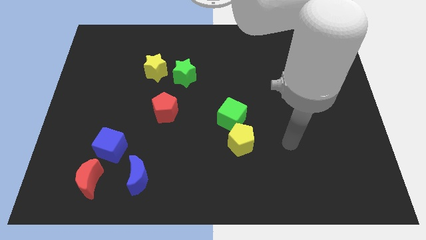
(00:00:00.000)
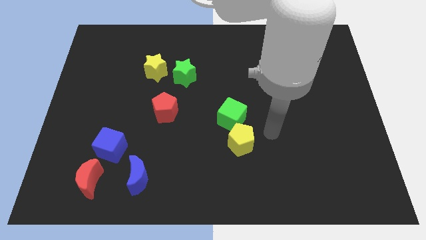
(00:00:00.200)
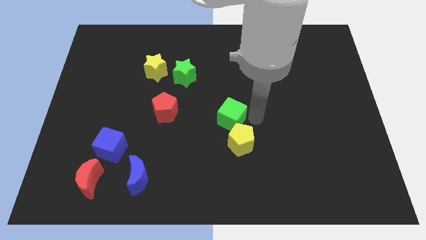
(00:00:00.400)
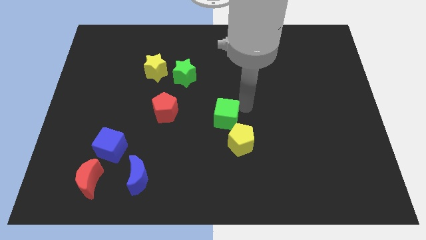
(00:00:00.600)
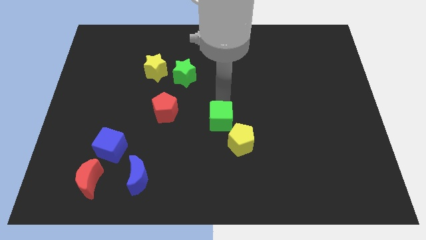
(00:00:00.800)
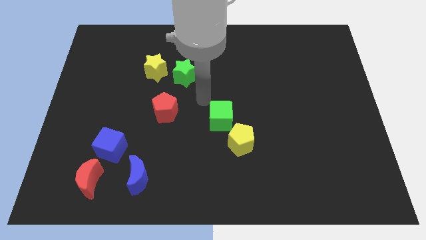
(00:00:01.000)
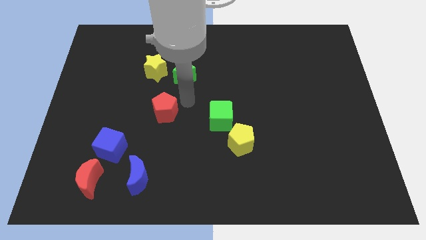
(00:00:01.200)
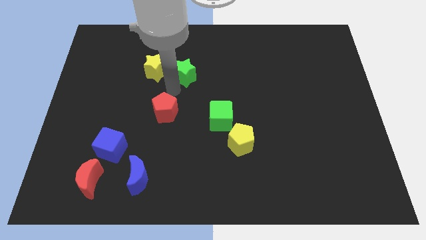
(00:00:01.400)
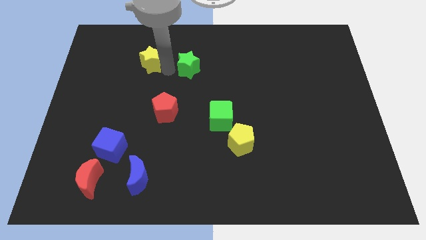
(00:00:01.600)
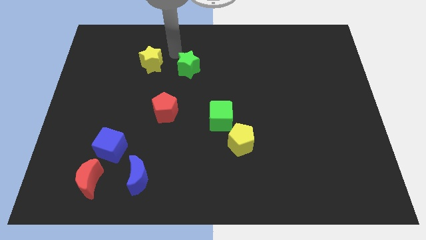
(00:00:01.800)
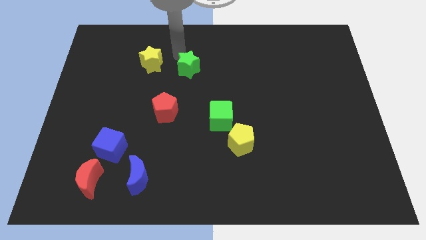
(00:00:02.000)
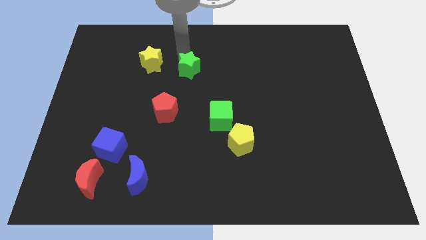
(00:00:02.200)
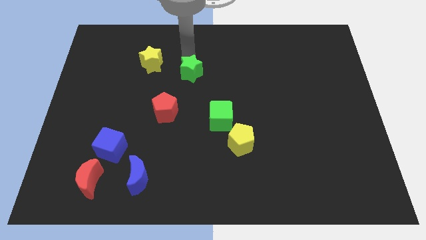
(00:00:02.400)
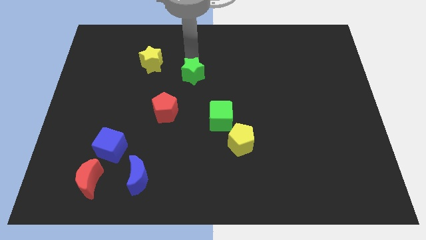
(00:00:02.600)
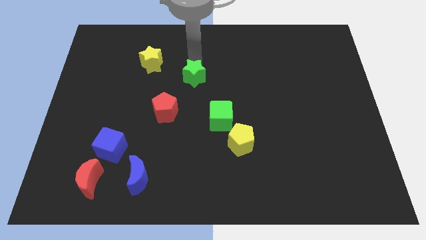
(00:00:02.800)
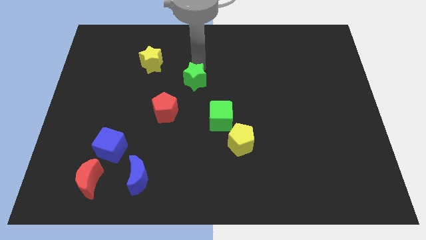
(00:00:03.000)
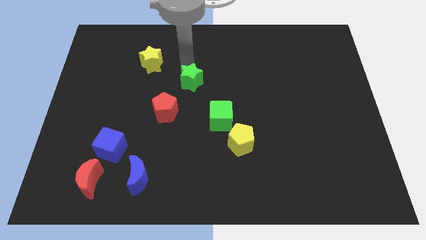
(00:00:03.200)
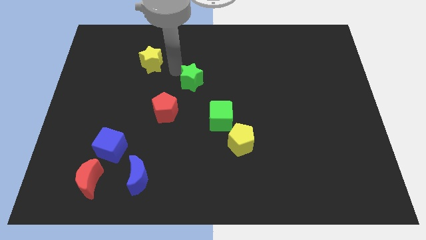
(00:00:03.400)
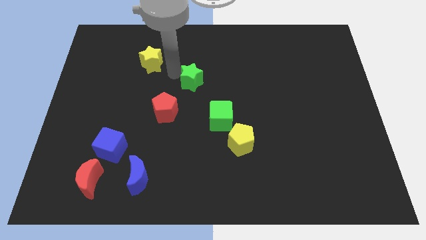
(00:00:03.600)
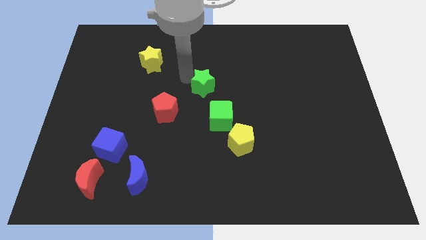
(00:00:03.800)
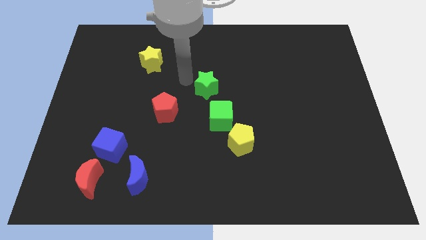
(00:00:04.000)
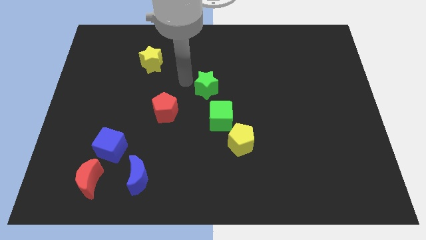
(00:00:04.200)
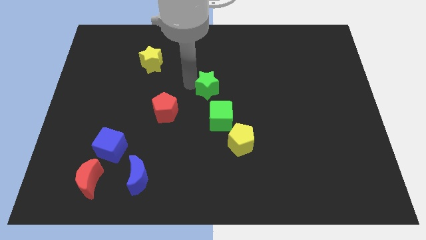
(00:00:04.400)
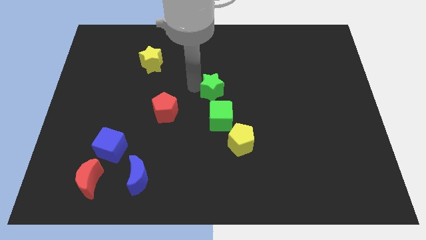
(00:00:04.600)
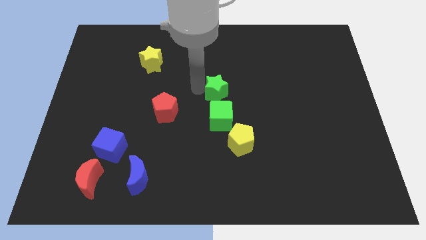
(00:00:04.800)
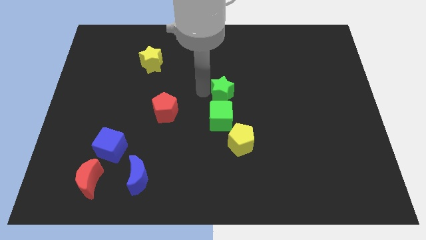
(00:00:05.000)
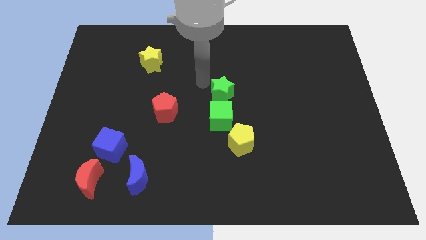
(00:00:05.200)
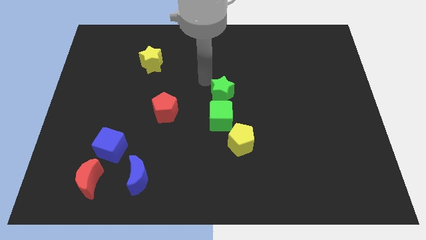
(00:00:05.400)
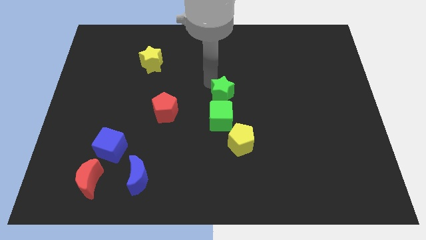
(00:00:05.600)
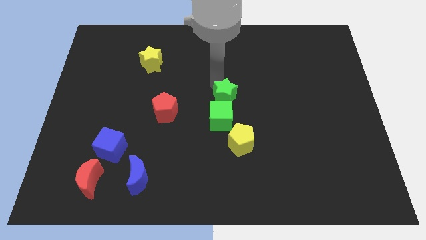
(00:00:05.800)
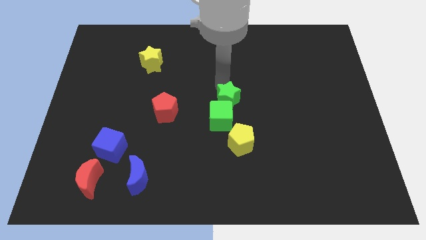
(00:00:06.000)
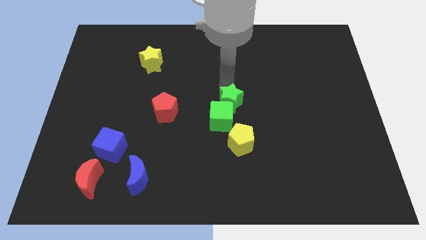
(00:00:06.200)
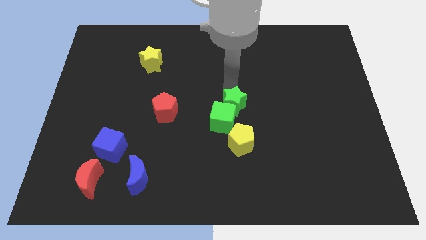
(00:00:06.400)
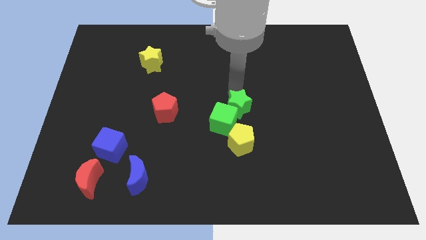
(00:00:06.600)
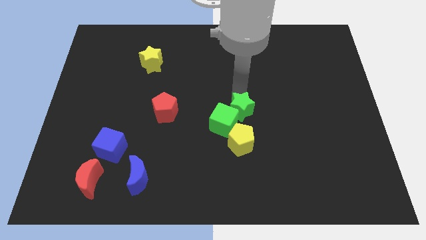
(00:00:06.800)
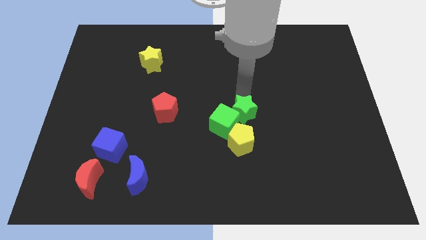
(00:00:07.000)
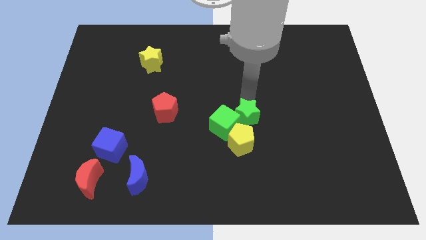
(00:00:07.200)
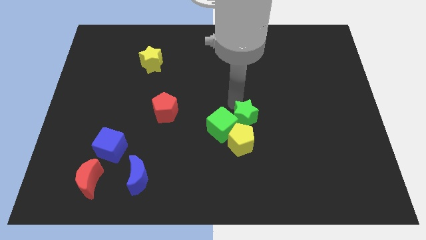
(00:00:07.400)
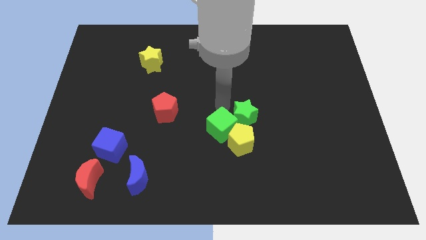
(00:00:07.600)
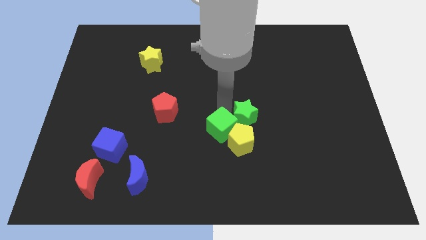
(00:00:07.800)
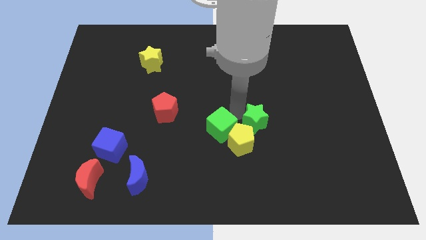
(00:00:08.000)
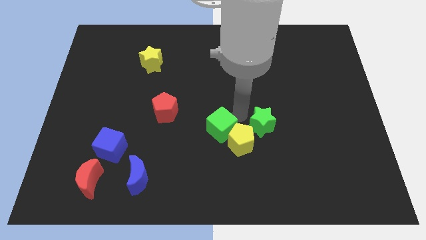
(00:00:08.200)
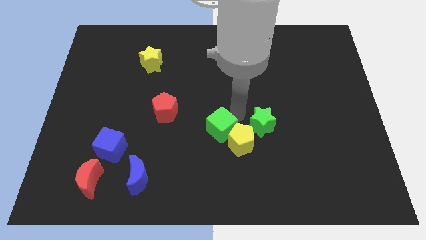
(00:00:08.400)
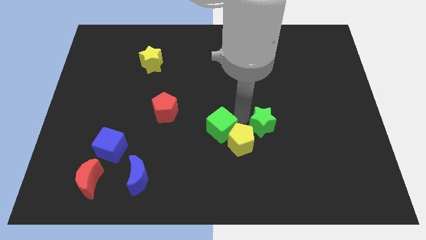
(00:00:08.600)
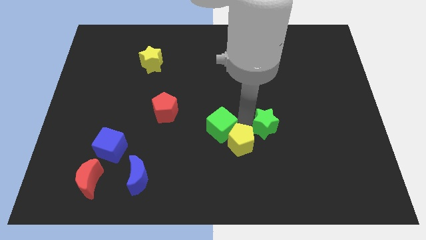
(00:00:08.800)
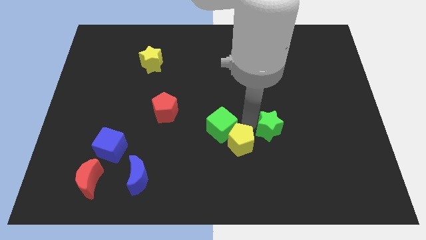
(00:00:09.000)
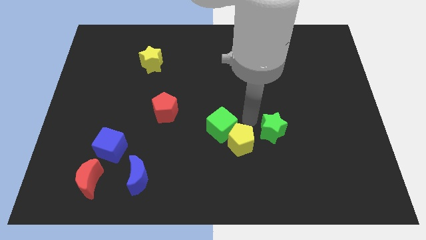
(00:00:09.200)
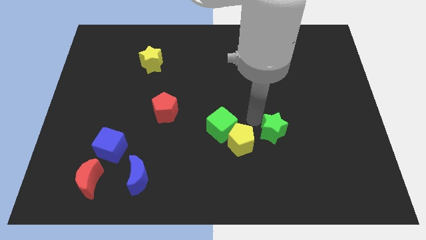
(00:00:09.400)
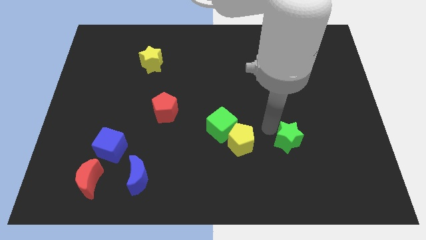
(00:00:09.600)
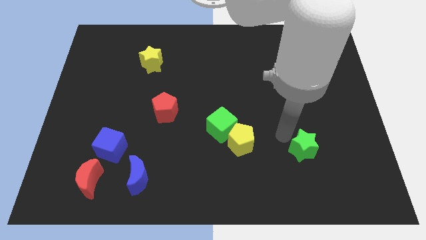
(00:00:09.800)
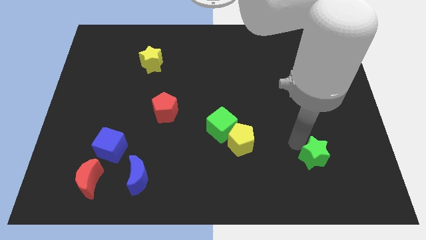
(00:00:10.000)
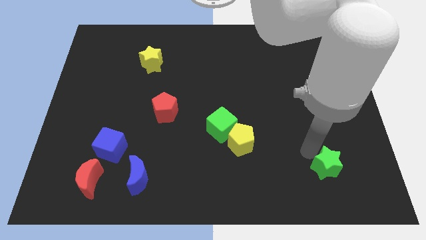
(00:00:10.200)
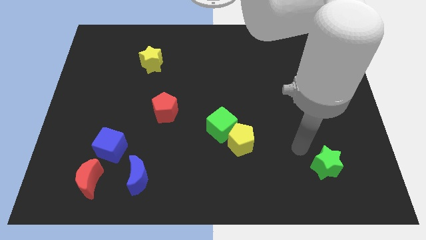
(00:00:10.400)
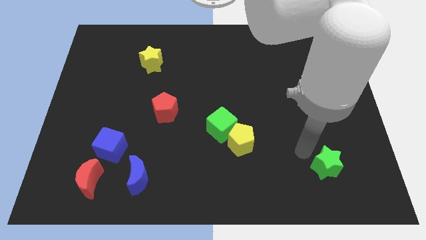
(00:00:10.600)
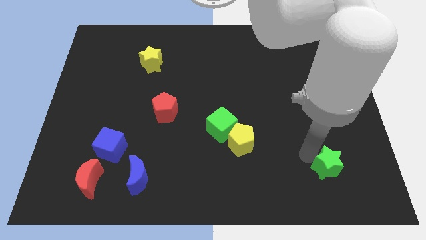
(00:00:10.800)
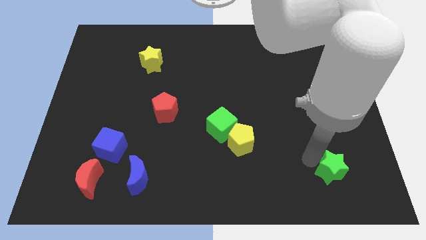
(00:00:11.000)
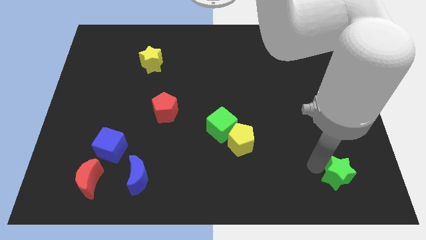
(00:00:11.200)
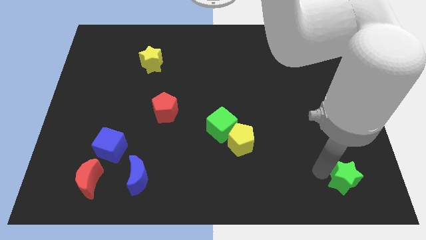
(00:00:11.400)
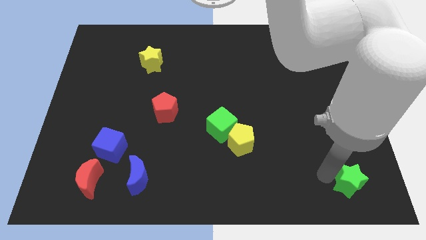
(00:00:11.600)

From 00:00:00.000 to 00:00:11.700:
put the green star to the bottom right of the board

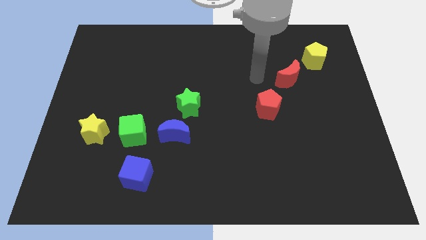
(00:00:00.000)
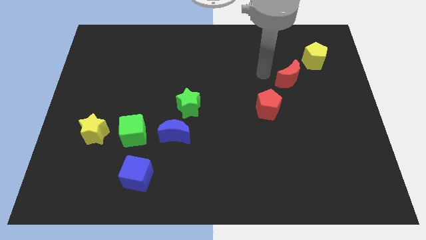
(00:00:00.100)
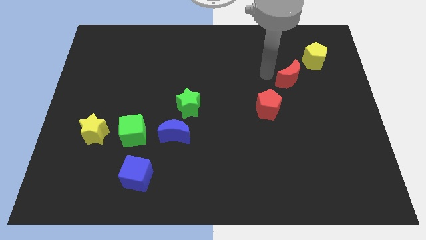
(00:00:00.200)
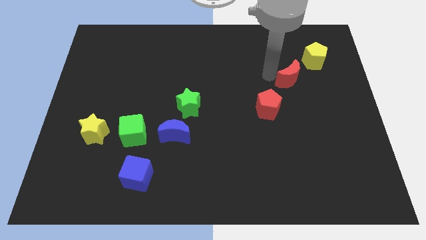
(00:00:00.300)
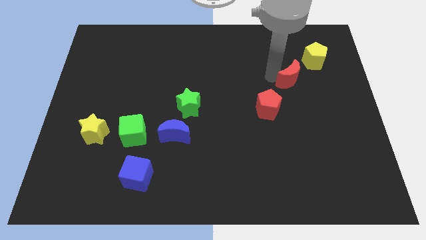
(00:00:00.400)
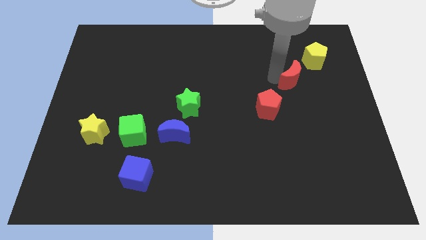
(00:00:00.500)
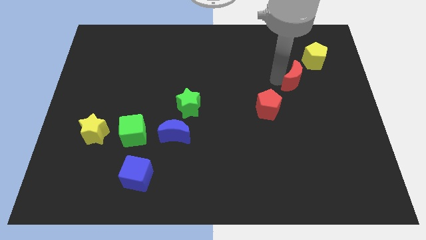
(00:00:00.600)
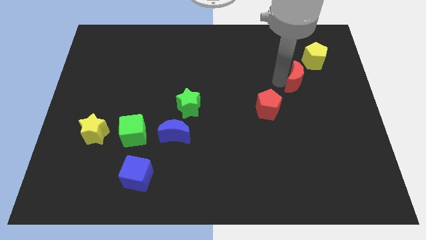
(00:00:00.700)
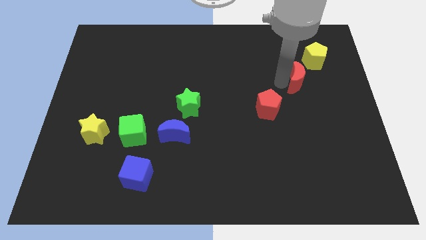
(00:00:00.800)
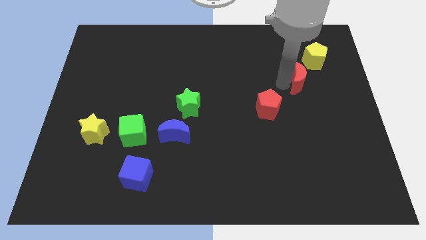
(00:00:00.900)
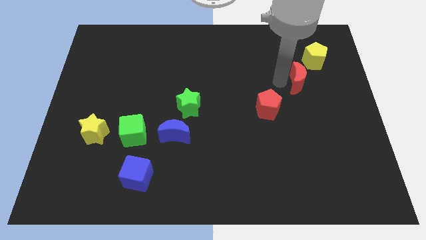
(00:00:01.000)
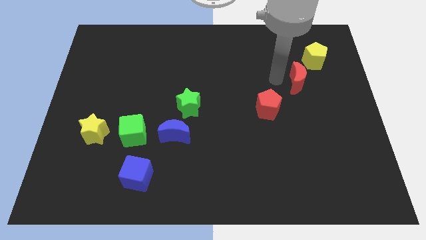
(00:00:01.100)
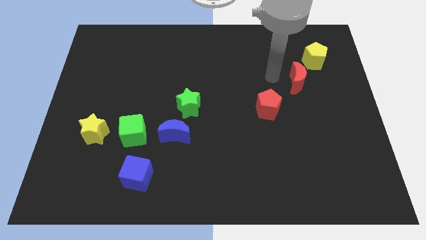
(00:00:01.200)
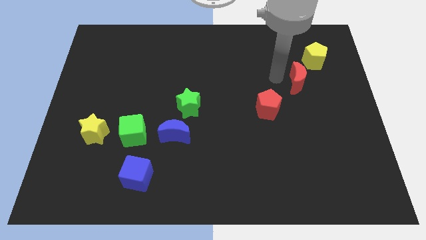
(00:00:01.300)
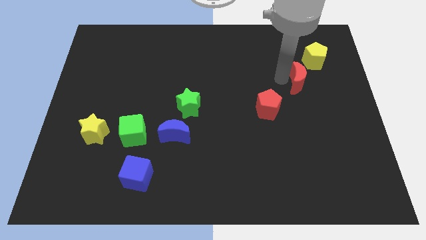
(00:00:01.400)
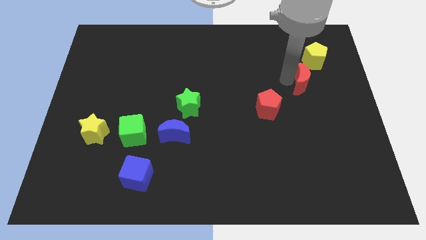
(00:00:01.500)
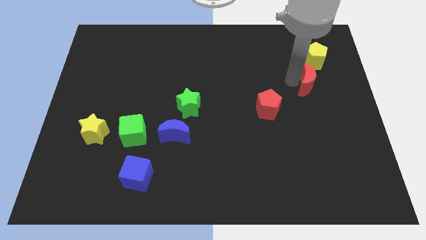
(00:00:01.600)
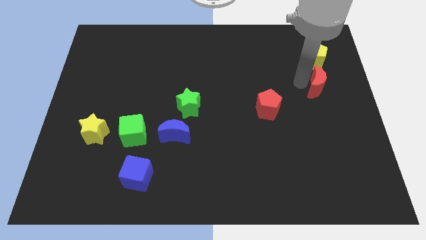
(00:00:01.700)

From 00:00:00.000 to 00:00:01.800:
slide the red moon to the right side of the board

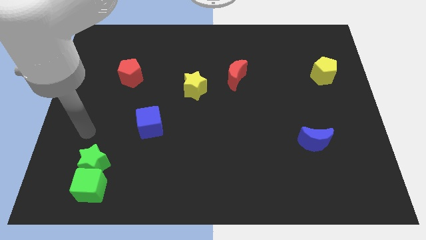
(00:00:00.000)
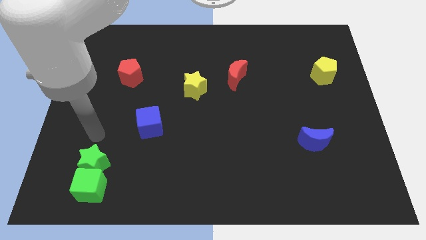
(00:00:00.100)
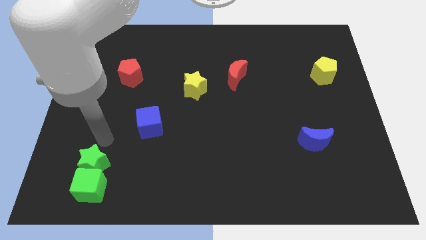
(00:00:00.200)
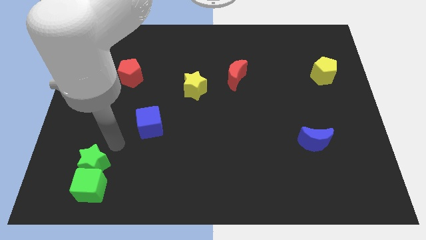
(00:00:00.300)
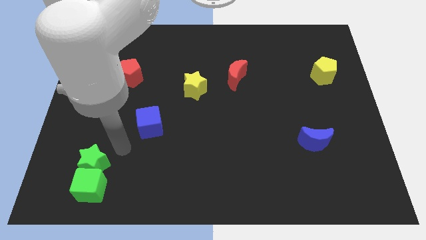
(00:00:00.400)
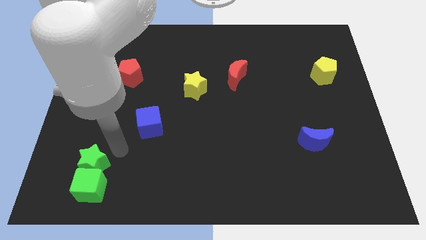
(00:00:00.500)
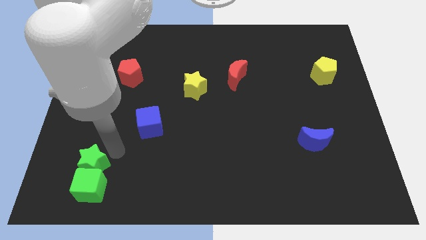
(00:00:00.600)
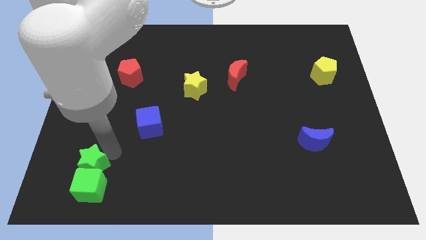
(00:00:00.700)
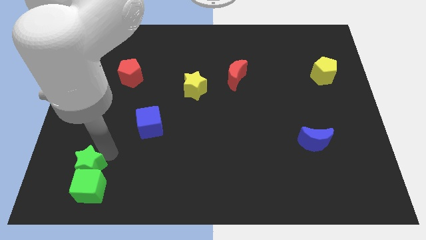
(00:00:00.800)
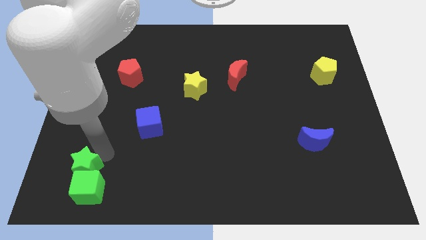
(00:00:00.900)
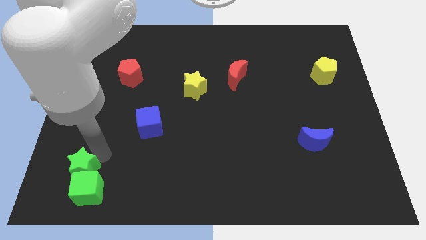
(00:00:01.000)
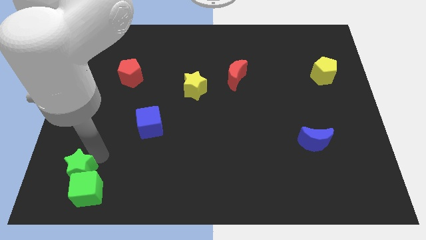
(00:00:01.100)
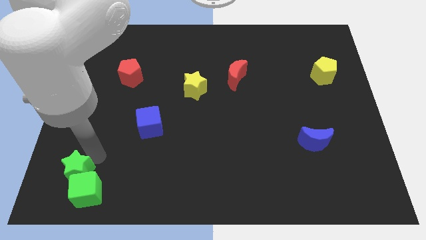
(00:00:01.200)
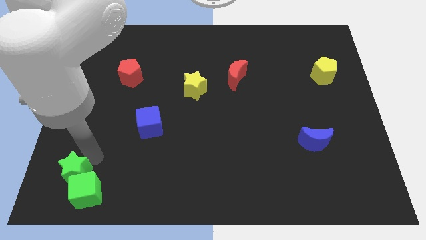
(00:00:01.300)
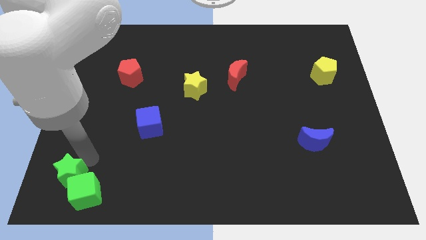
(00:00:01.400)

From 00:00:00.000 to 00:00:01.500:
put the green star to the lower left corner
